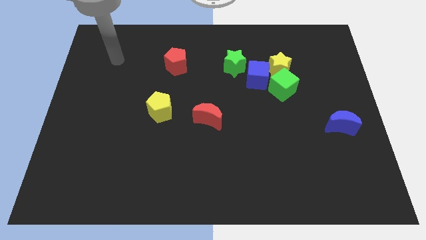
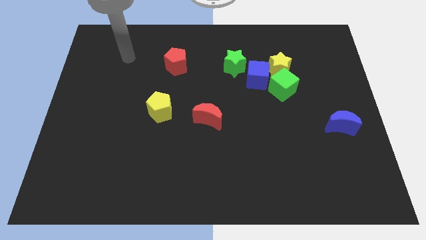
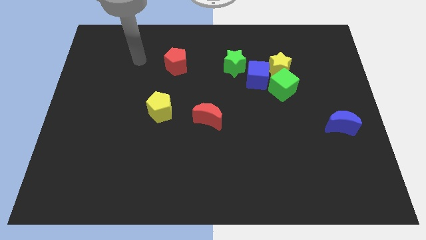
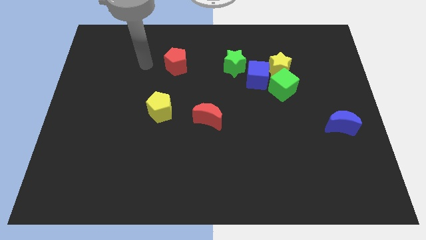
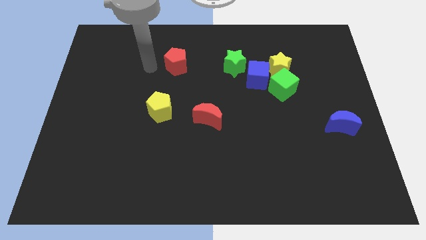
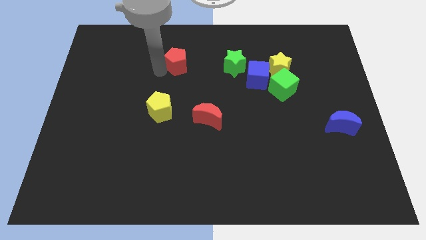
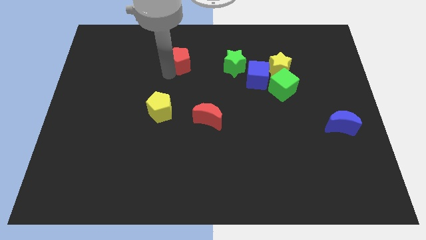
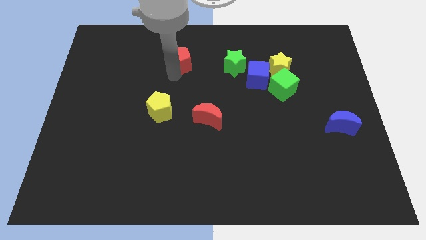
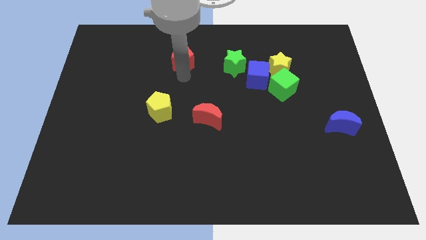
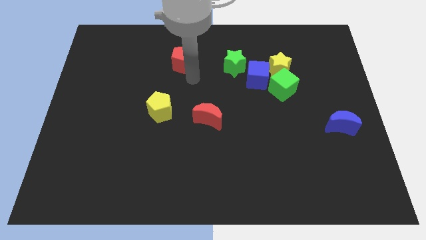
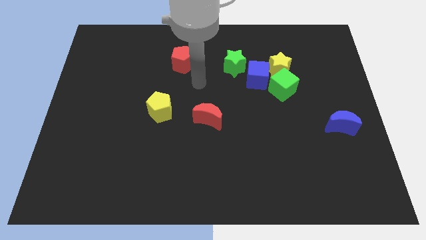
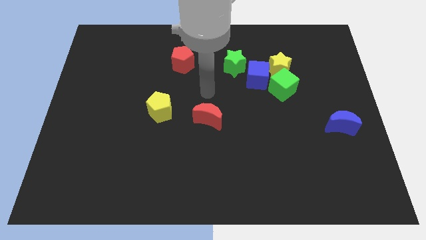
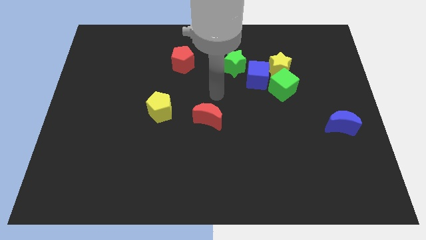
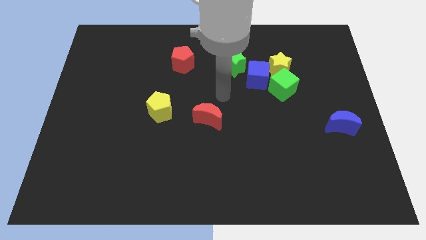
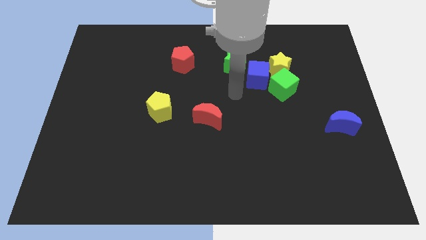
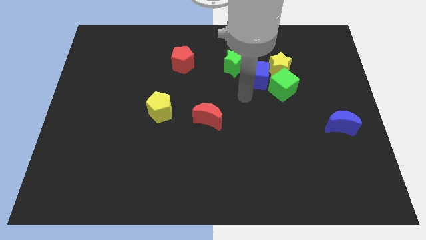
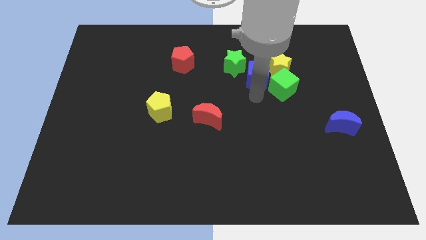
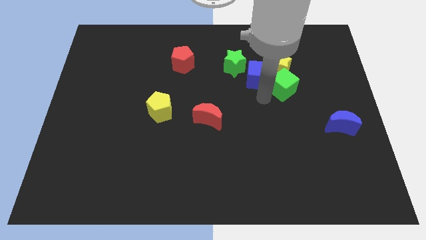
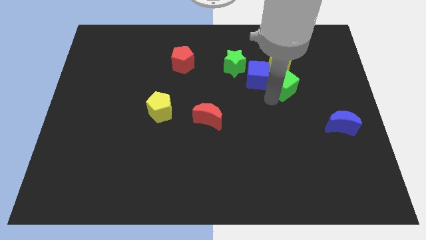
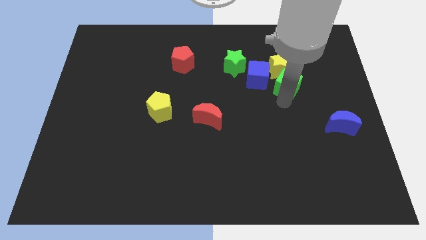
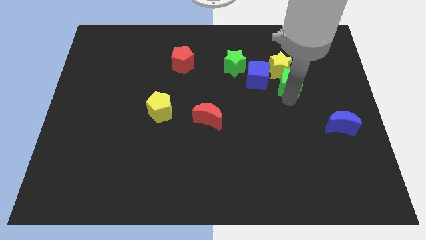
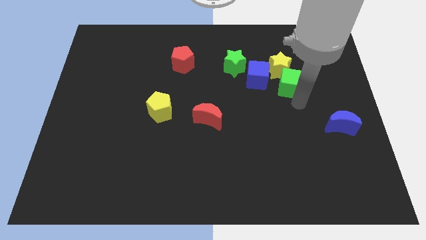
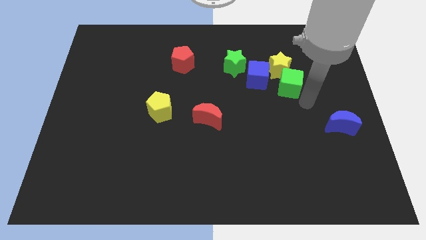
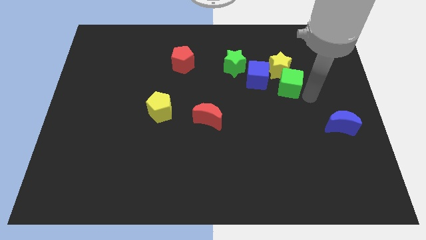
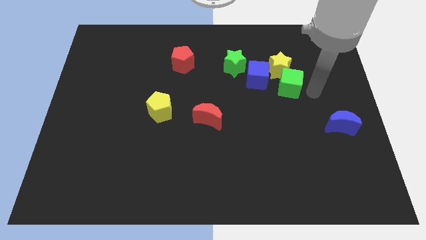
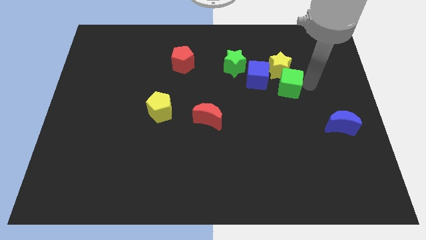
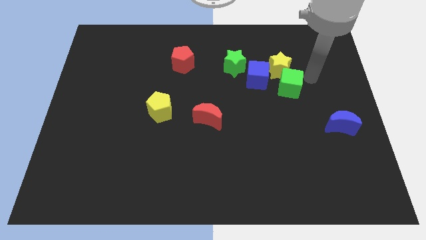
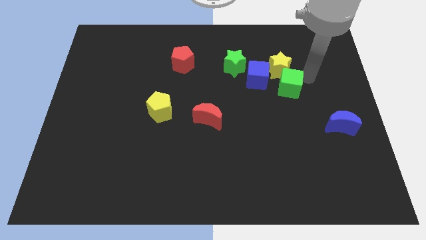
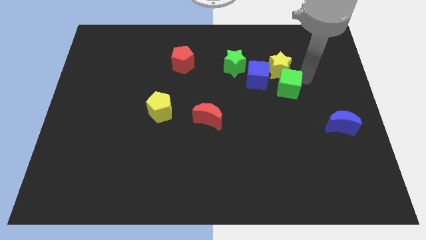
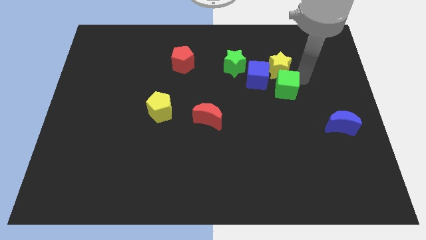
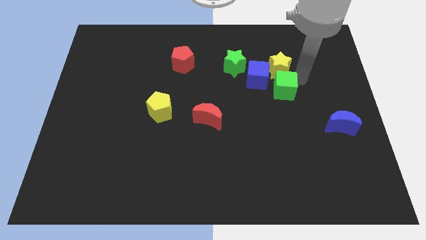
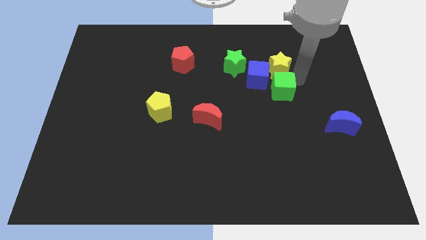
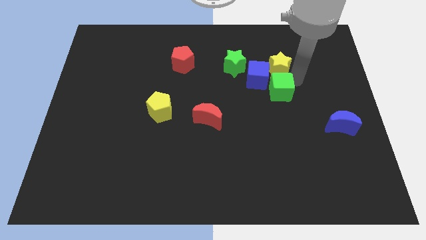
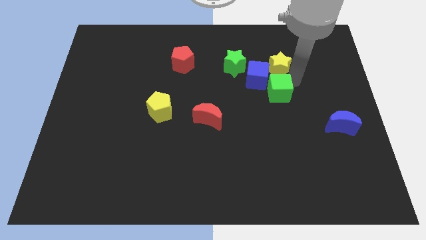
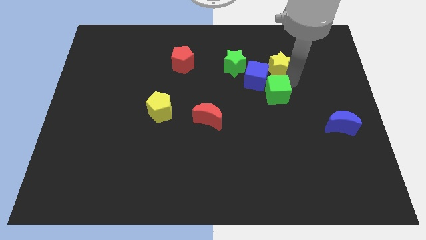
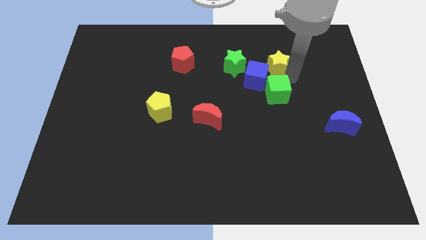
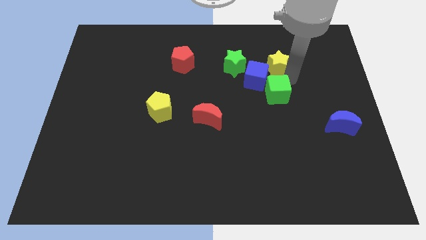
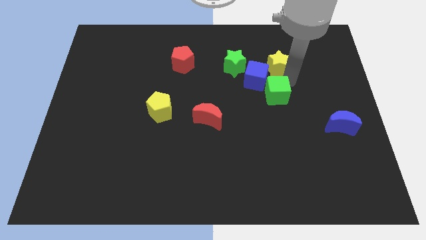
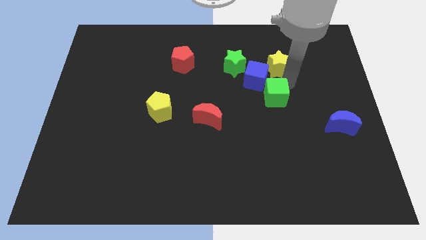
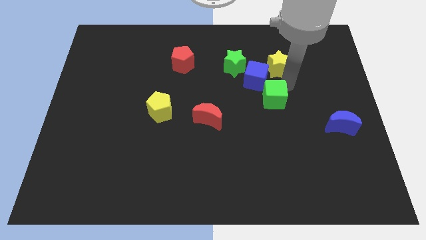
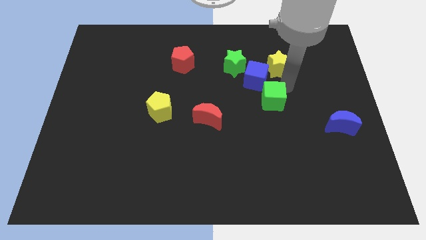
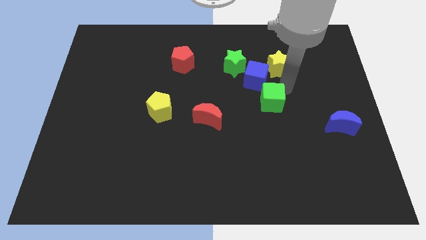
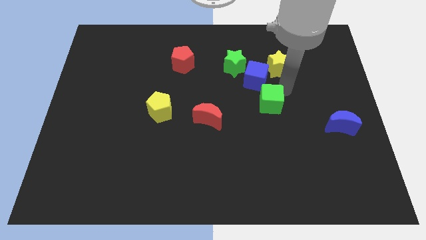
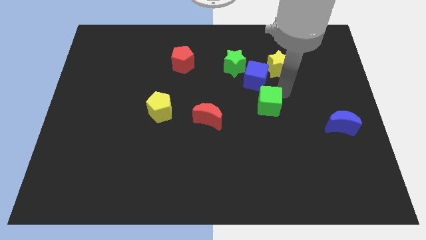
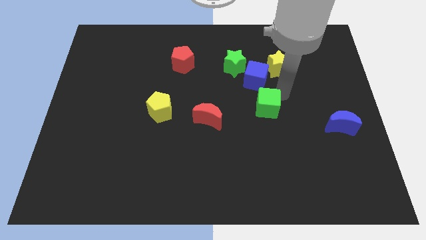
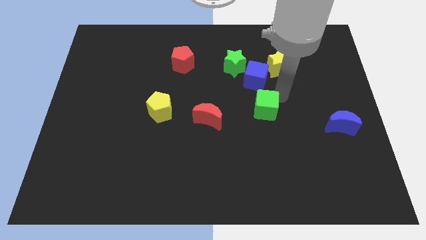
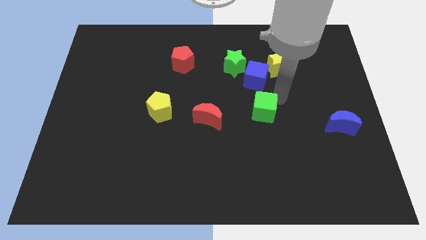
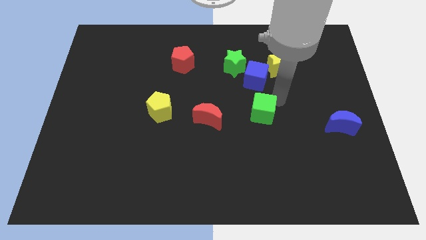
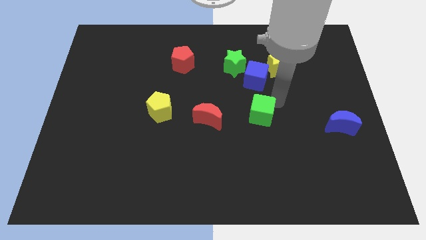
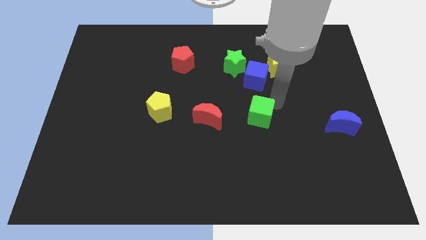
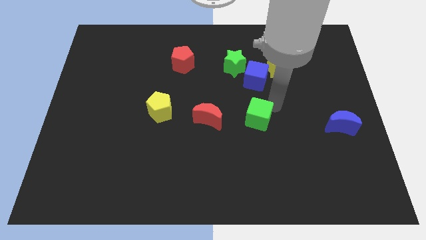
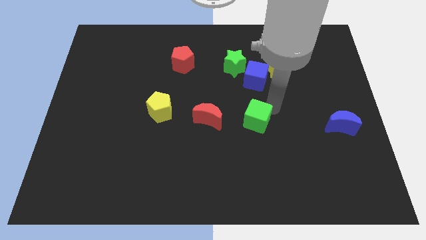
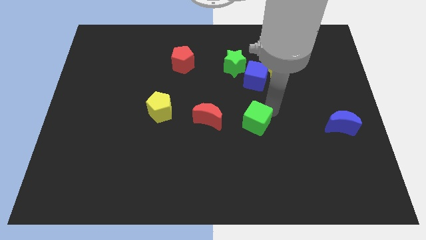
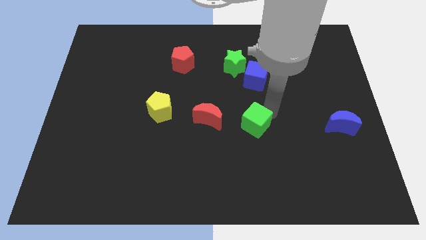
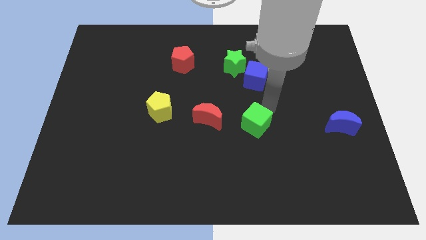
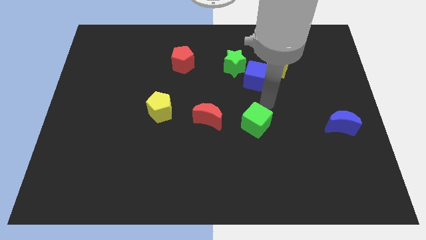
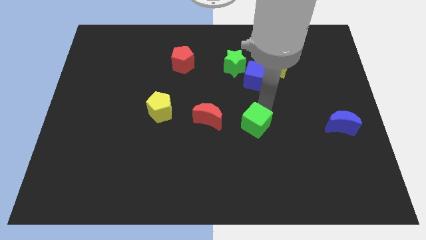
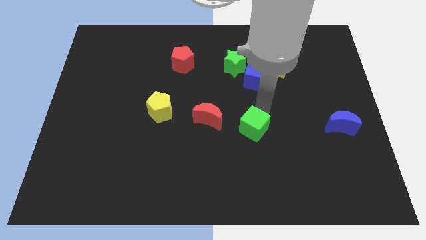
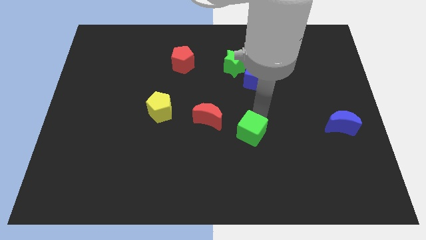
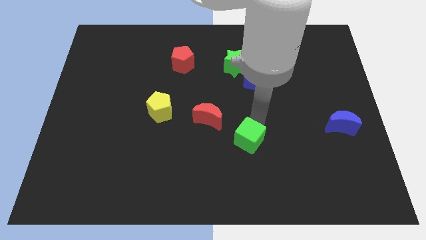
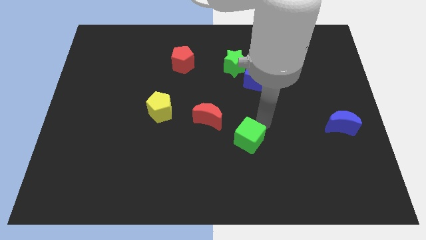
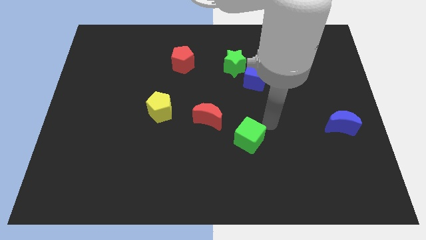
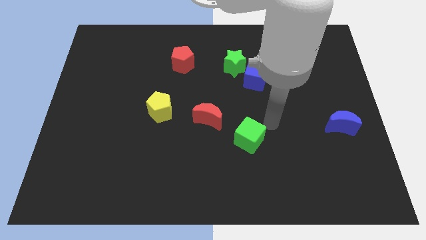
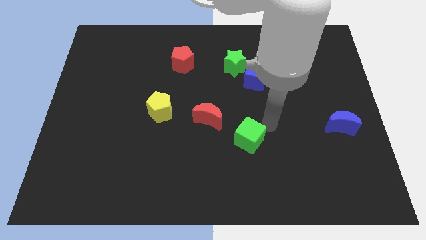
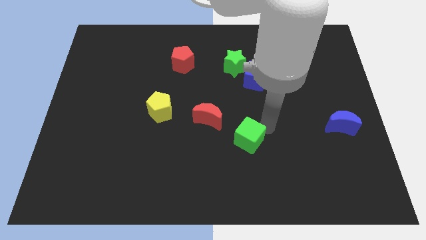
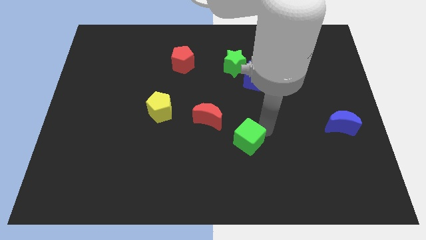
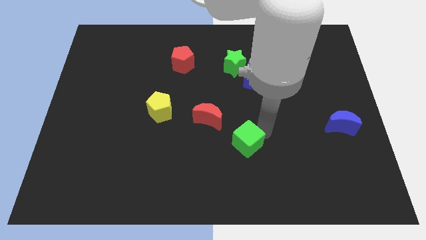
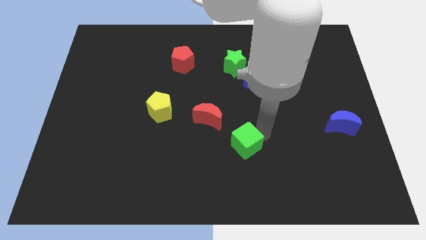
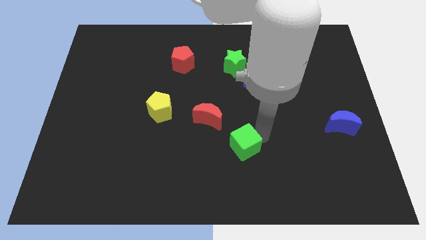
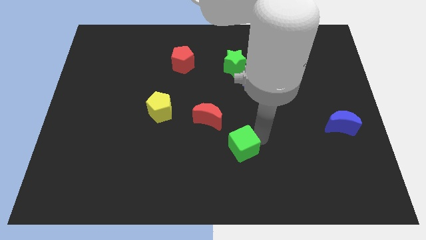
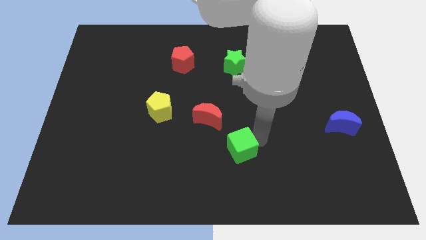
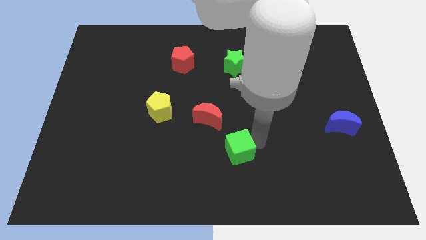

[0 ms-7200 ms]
push the green cube downwards and to the left

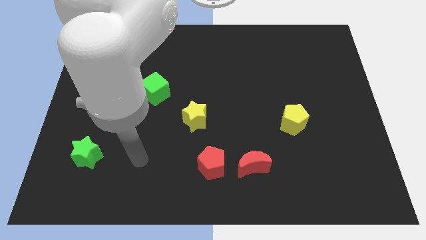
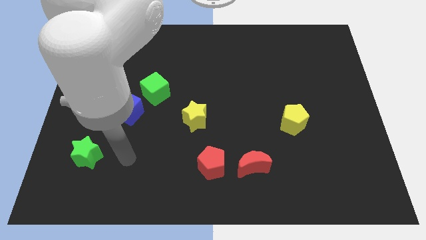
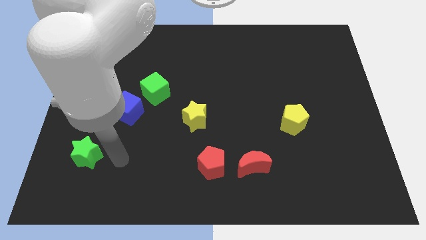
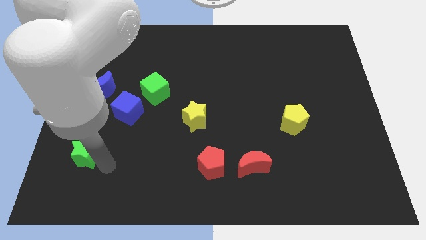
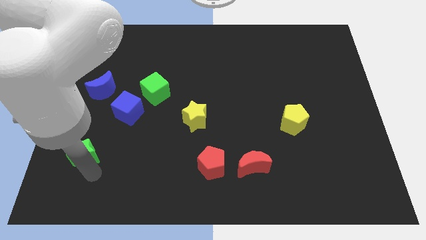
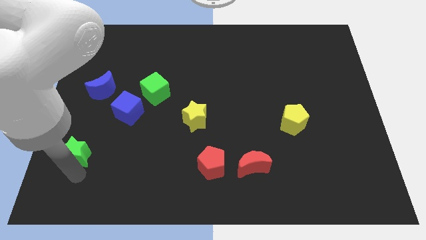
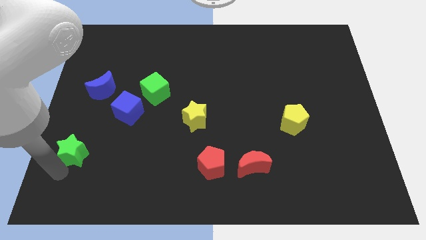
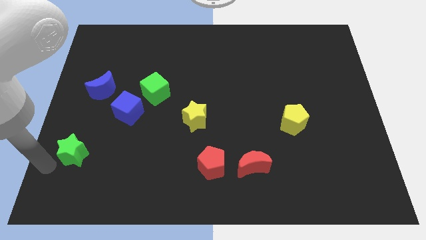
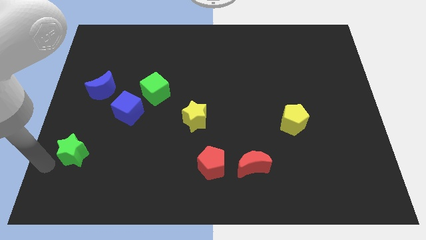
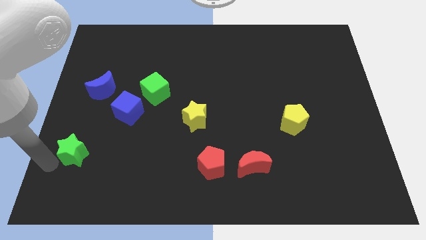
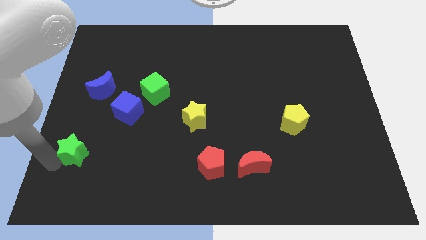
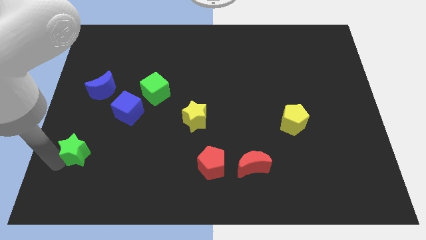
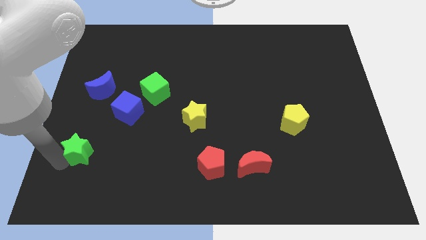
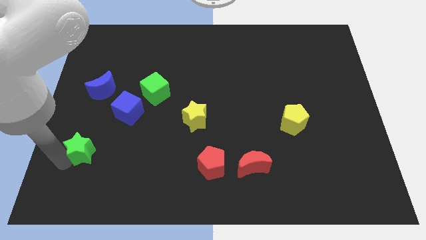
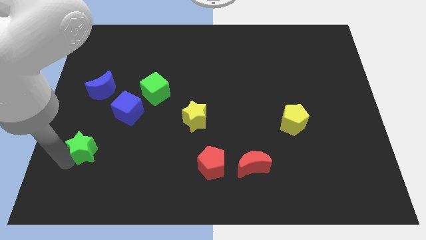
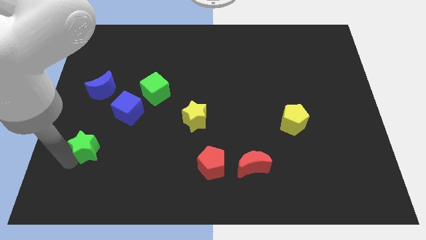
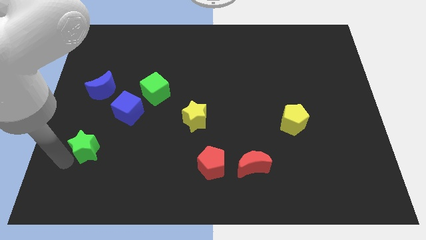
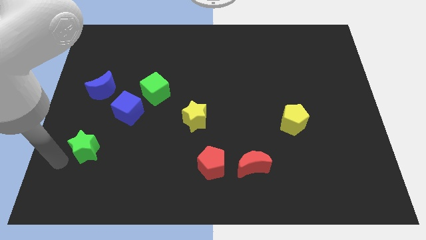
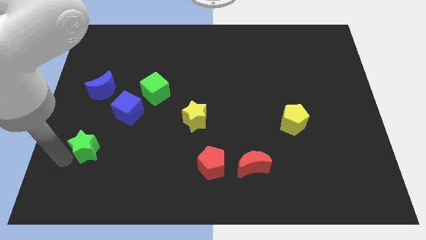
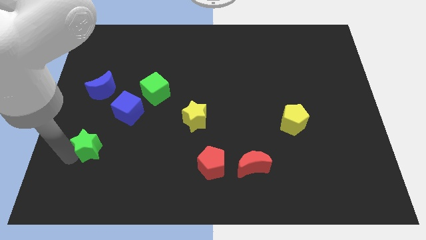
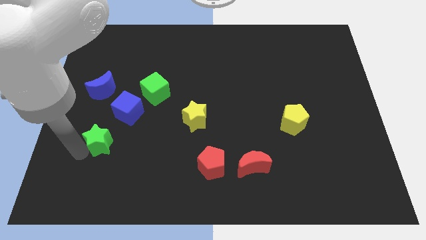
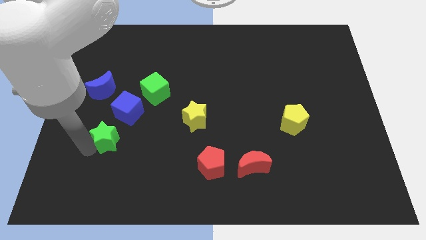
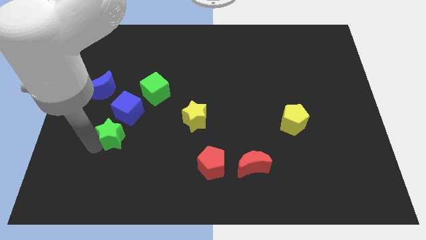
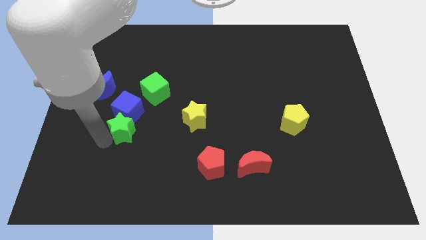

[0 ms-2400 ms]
slightly slide the green star upwards and to the right
